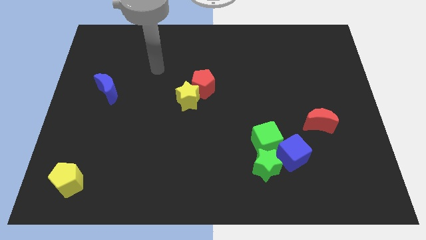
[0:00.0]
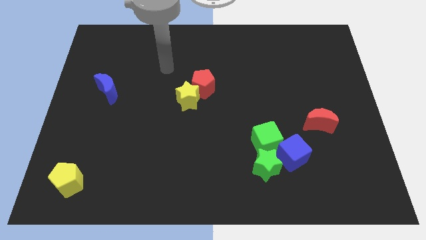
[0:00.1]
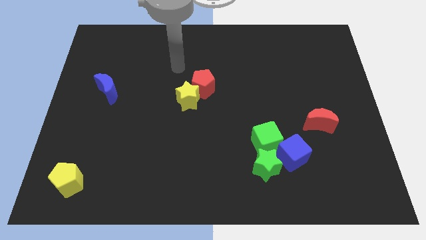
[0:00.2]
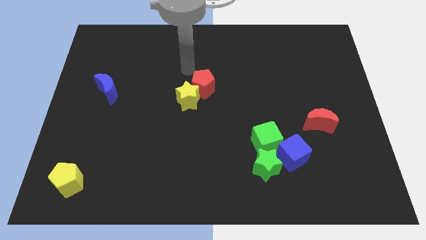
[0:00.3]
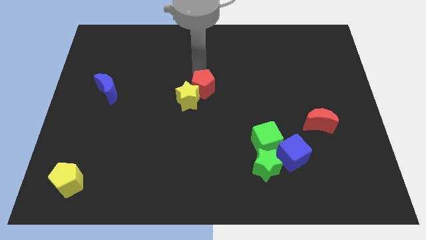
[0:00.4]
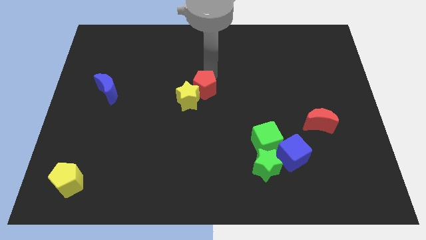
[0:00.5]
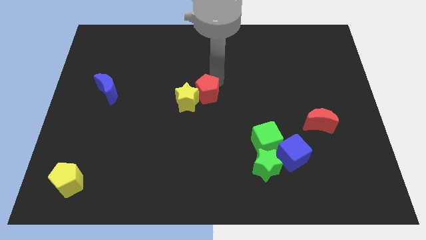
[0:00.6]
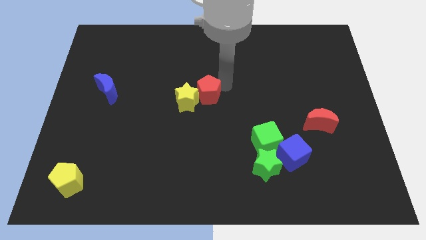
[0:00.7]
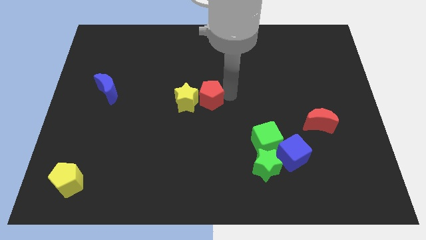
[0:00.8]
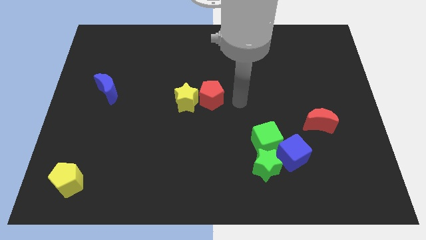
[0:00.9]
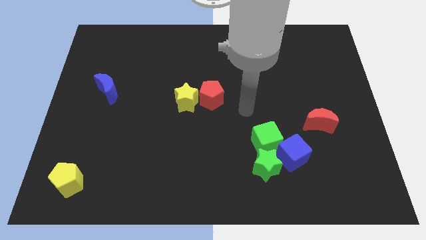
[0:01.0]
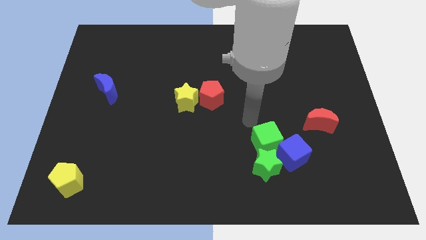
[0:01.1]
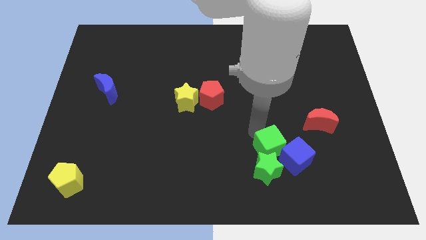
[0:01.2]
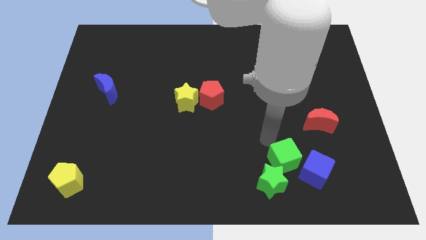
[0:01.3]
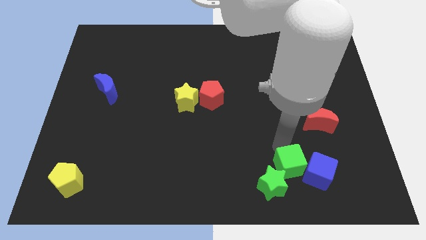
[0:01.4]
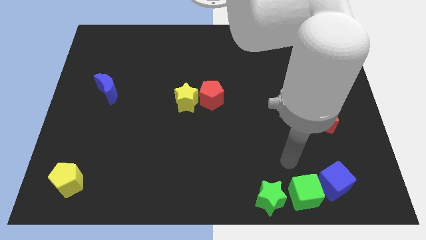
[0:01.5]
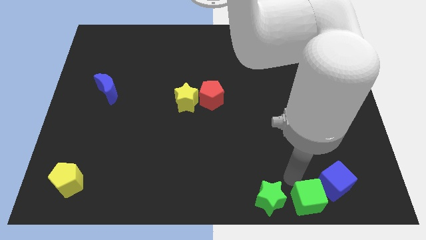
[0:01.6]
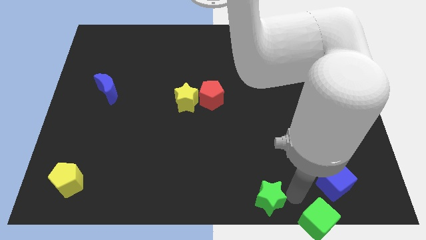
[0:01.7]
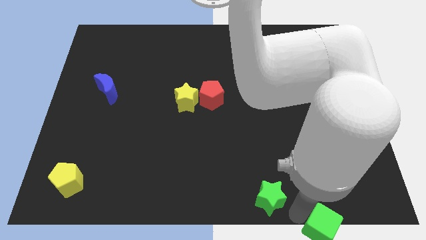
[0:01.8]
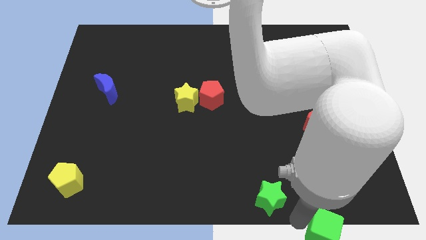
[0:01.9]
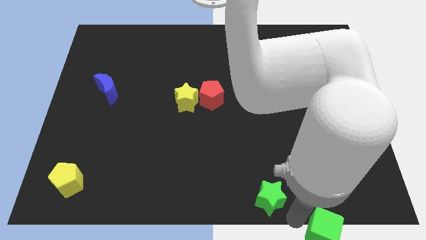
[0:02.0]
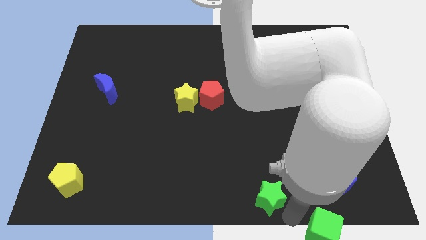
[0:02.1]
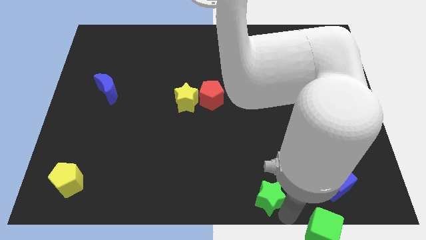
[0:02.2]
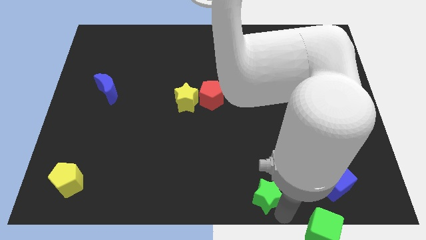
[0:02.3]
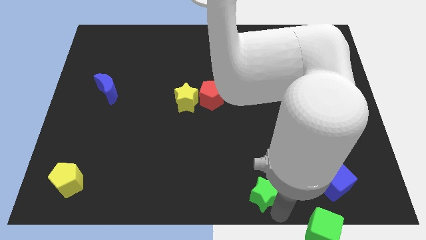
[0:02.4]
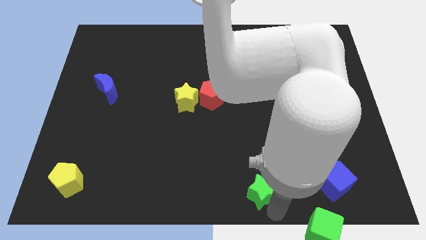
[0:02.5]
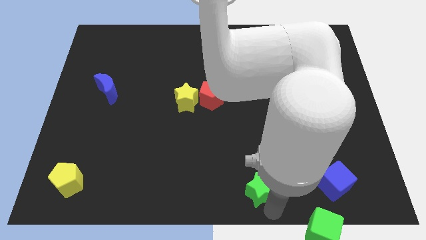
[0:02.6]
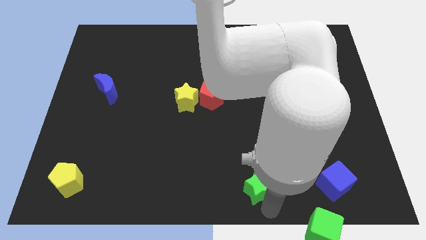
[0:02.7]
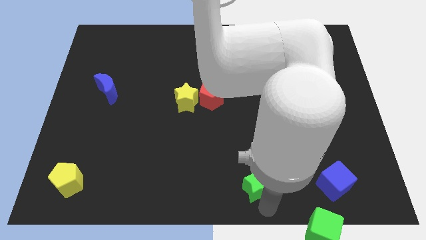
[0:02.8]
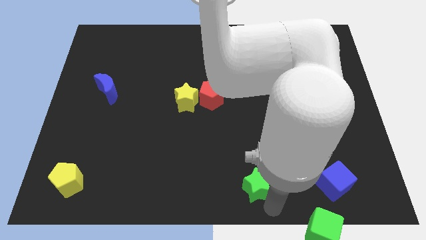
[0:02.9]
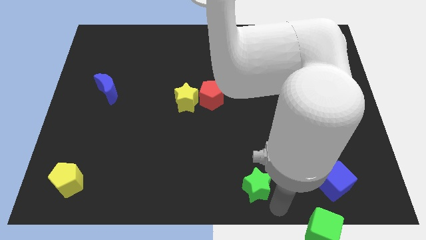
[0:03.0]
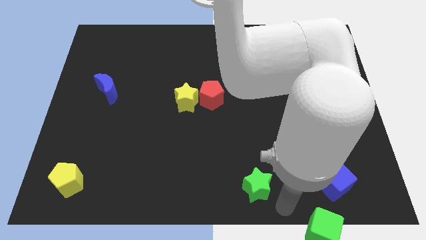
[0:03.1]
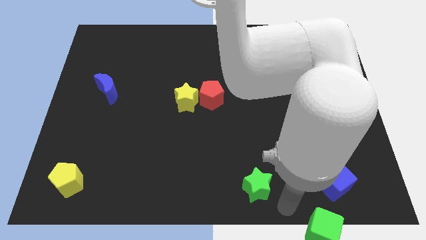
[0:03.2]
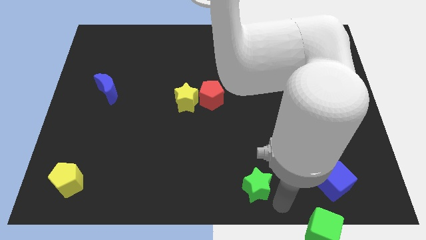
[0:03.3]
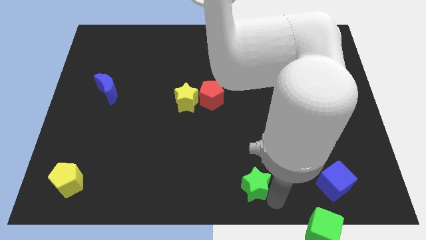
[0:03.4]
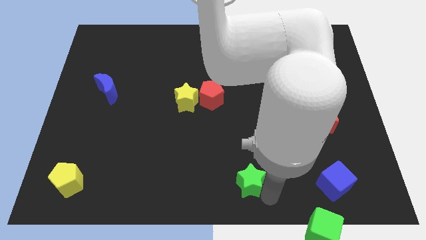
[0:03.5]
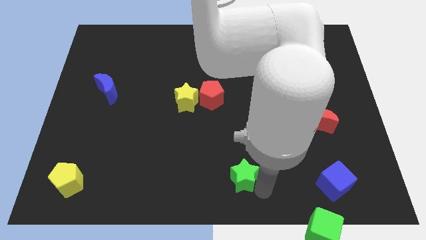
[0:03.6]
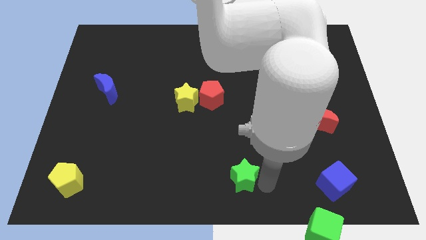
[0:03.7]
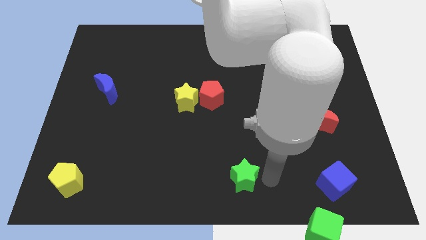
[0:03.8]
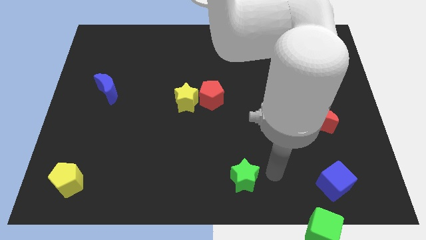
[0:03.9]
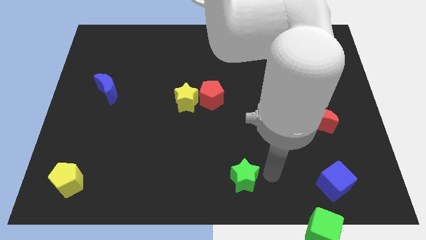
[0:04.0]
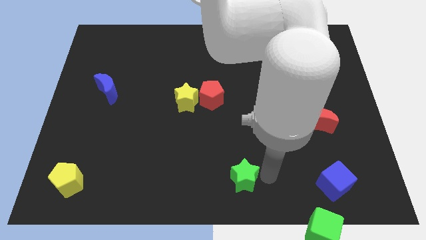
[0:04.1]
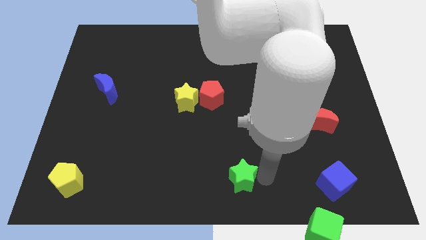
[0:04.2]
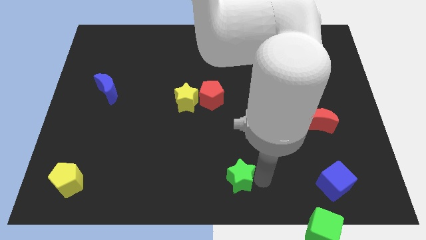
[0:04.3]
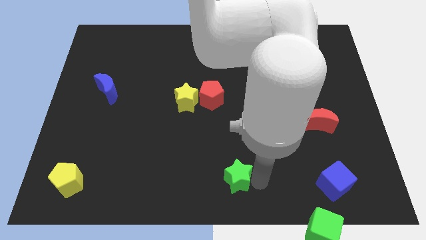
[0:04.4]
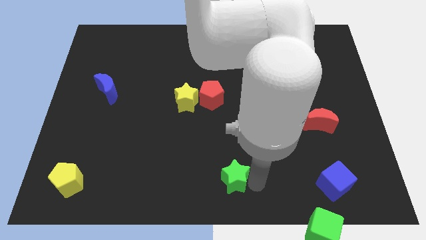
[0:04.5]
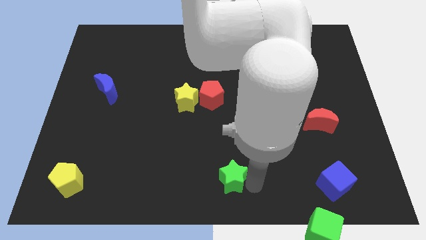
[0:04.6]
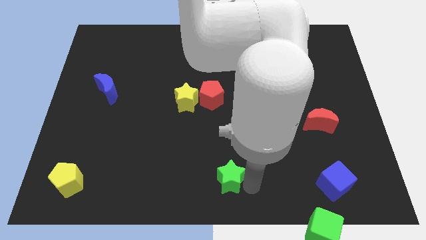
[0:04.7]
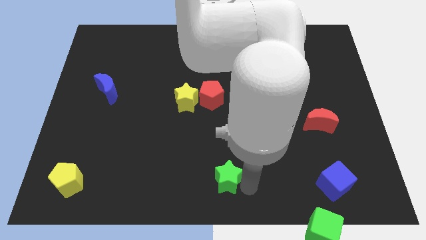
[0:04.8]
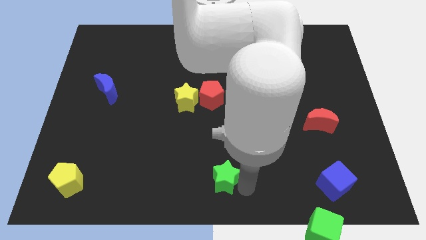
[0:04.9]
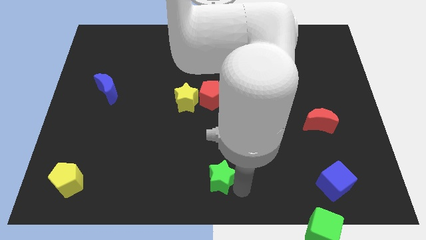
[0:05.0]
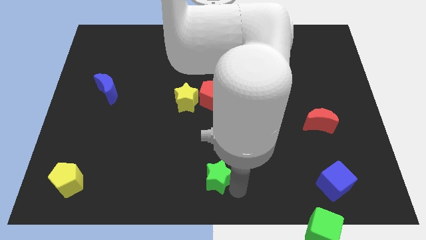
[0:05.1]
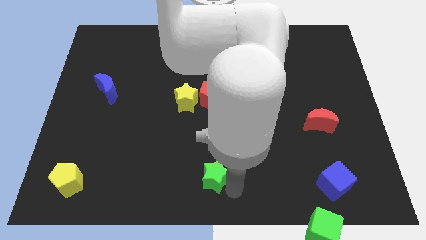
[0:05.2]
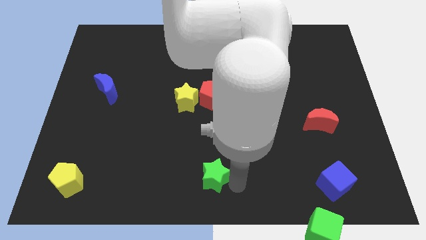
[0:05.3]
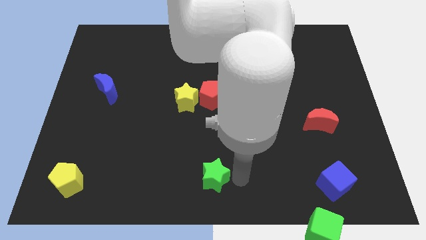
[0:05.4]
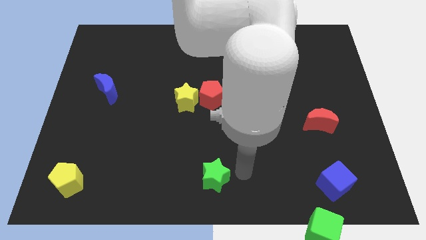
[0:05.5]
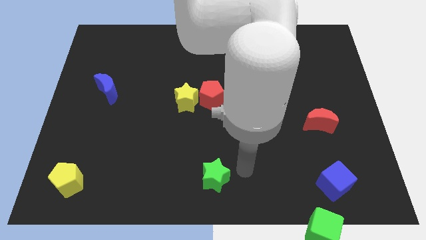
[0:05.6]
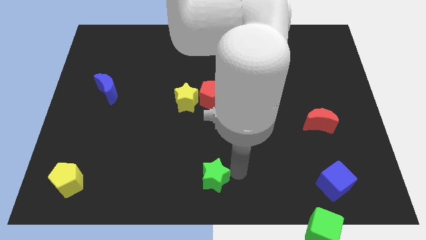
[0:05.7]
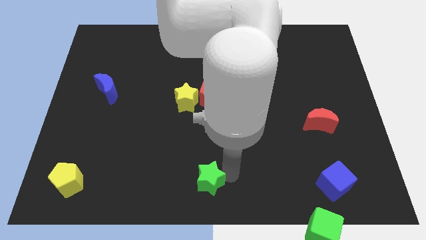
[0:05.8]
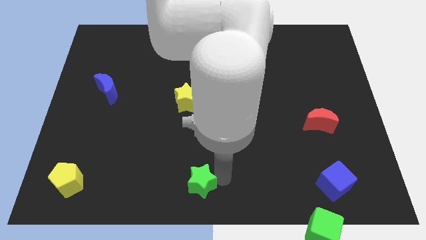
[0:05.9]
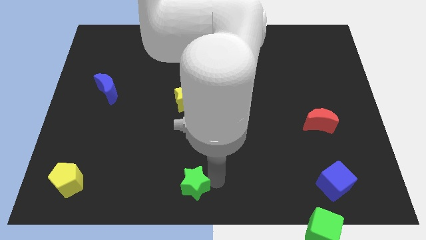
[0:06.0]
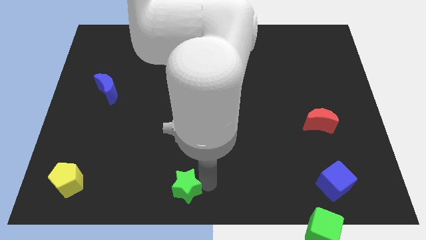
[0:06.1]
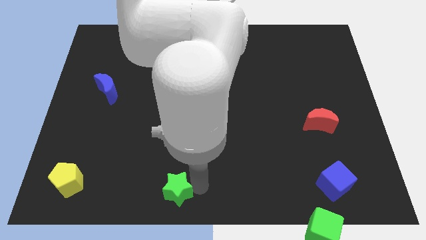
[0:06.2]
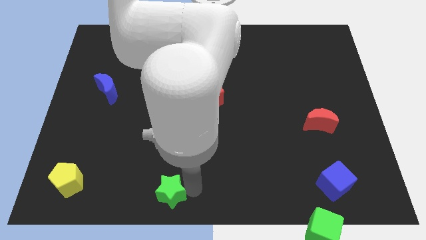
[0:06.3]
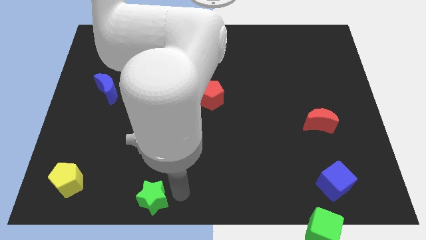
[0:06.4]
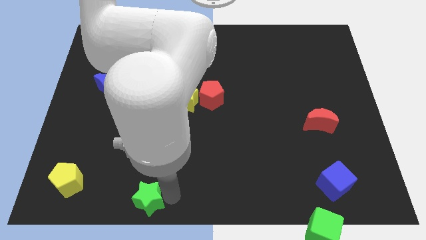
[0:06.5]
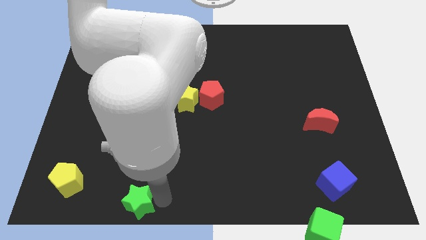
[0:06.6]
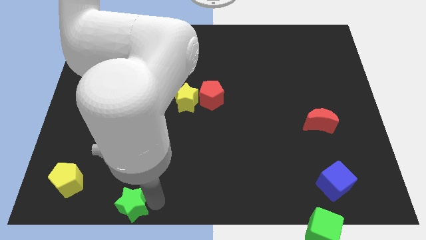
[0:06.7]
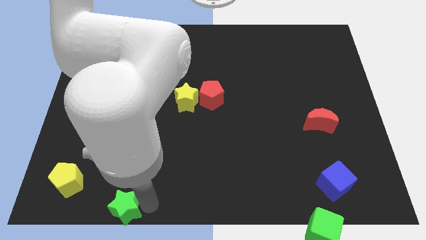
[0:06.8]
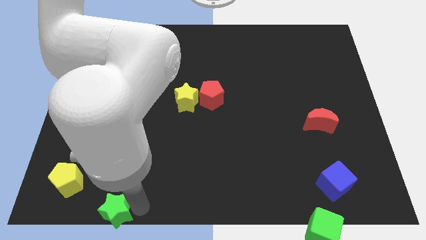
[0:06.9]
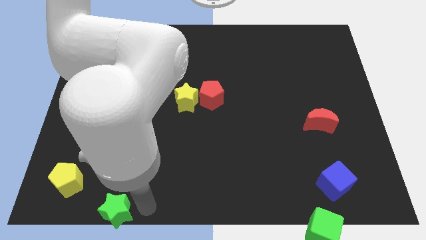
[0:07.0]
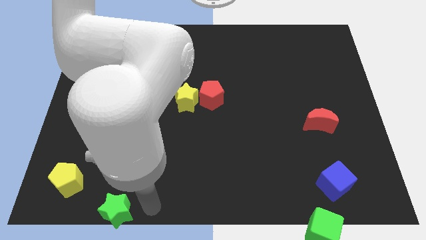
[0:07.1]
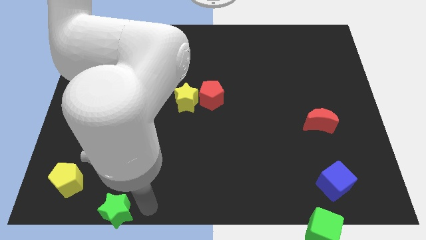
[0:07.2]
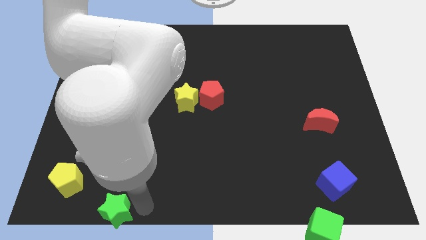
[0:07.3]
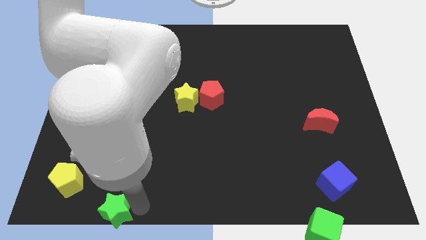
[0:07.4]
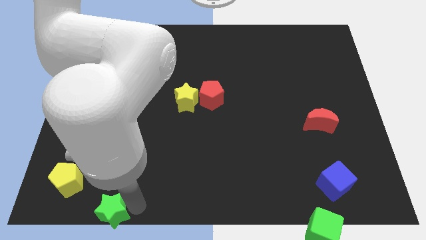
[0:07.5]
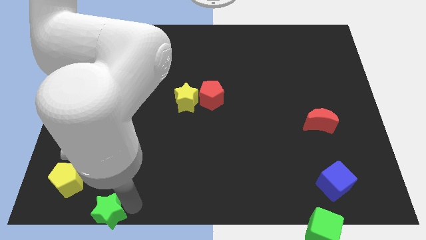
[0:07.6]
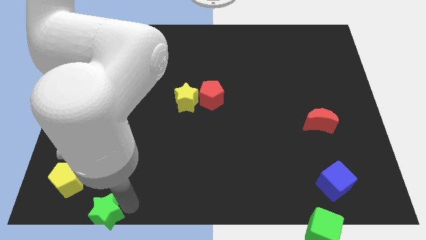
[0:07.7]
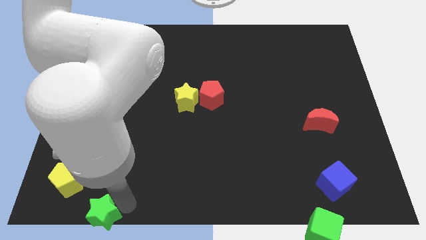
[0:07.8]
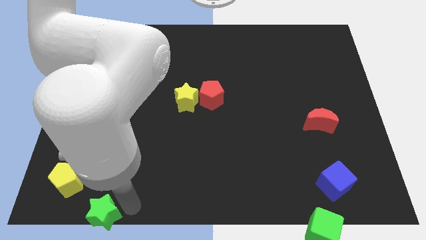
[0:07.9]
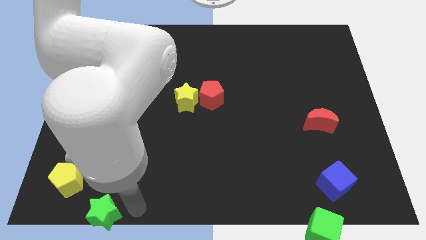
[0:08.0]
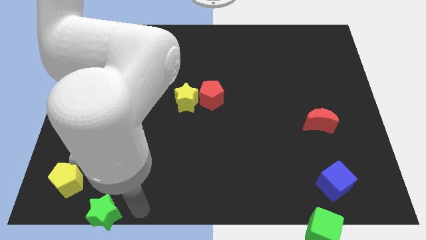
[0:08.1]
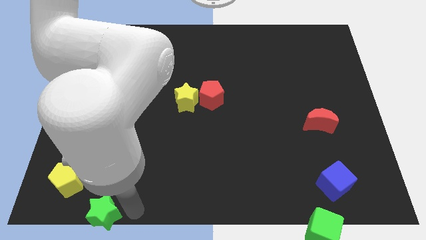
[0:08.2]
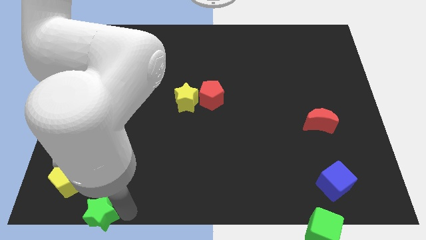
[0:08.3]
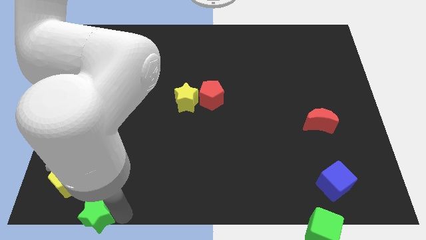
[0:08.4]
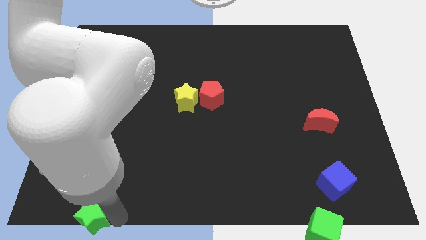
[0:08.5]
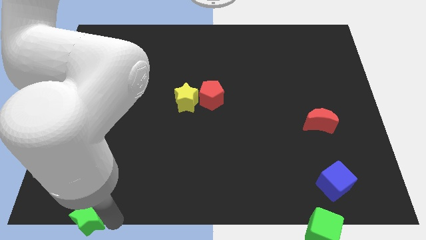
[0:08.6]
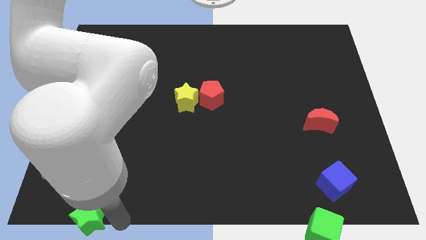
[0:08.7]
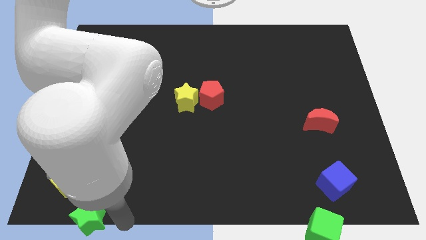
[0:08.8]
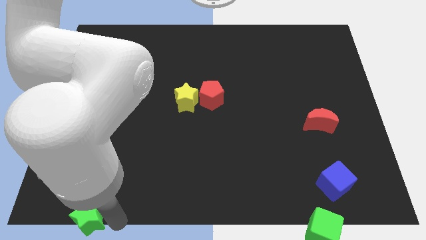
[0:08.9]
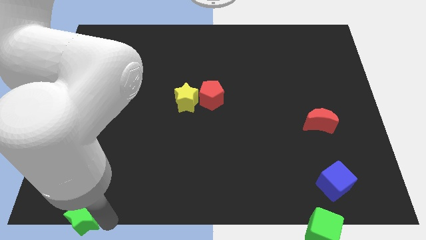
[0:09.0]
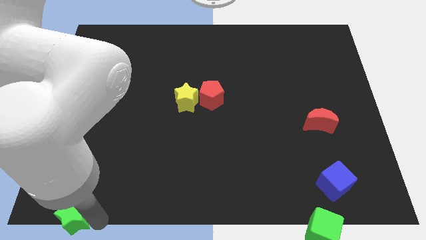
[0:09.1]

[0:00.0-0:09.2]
slide the green star to the lower left corner
